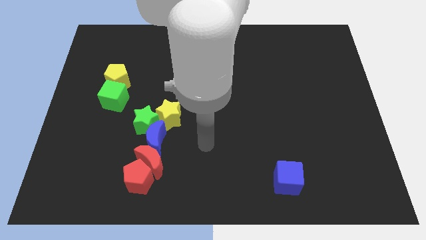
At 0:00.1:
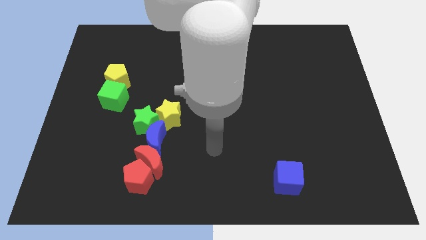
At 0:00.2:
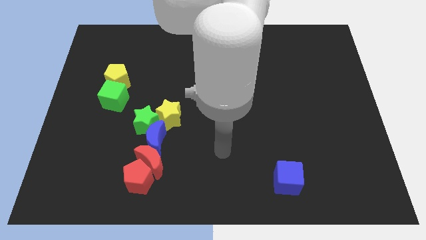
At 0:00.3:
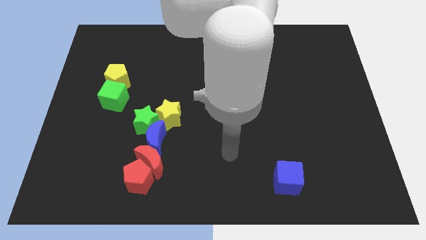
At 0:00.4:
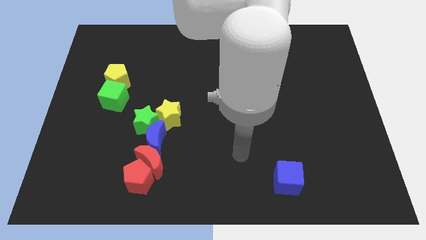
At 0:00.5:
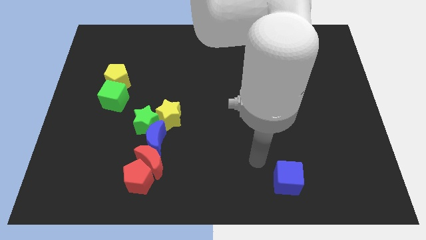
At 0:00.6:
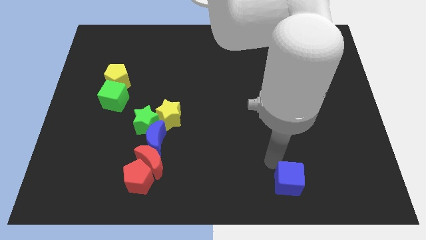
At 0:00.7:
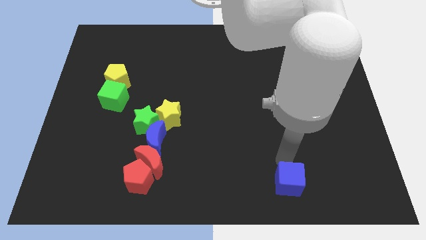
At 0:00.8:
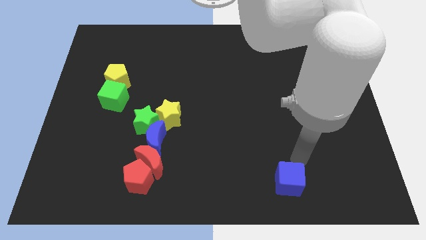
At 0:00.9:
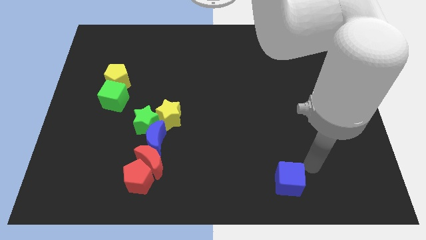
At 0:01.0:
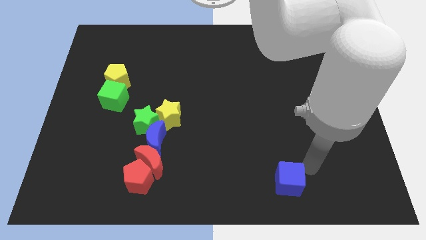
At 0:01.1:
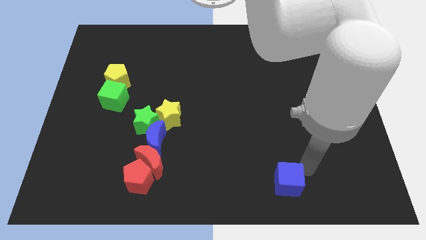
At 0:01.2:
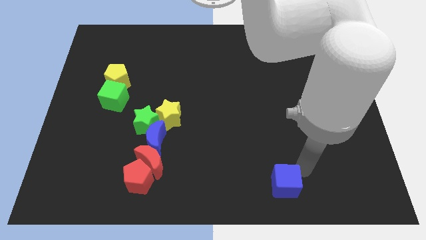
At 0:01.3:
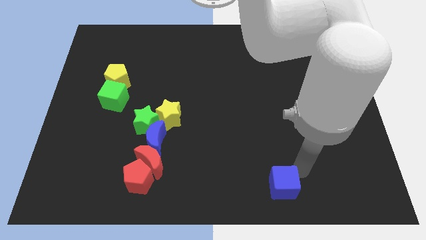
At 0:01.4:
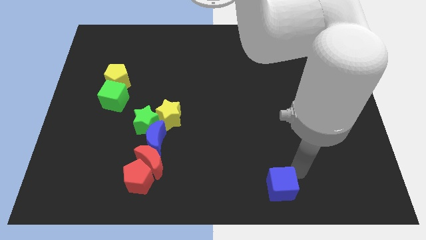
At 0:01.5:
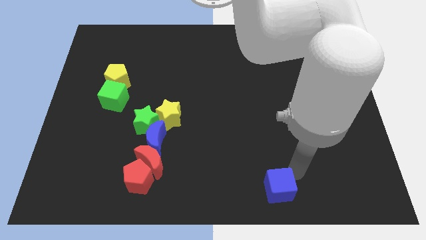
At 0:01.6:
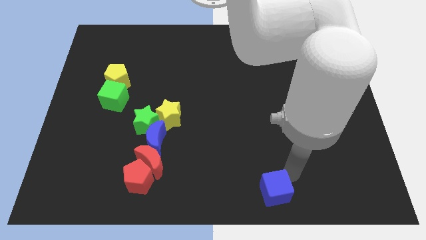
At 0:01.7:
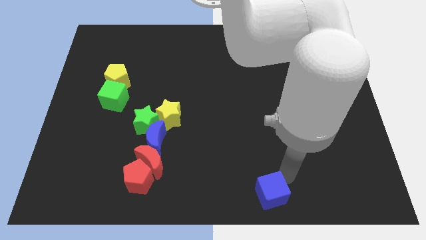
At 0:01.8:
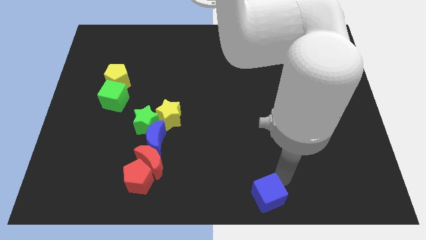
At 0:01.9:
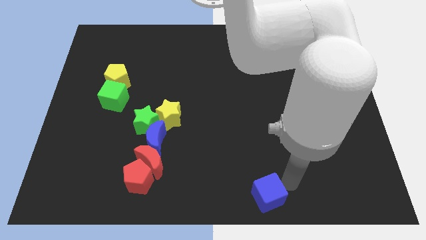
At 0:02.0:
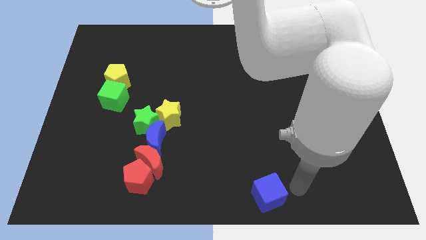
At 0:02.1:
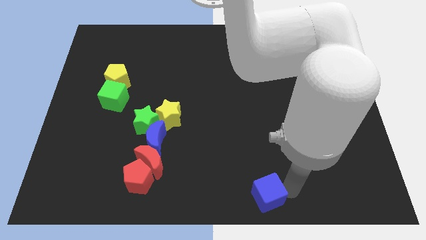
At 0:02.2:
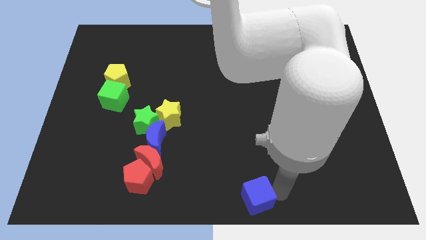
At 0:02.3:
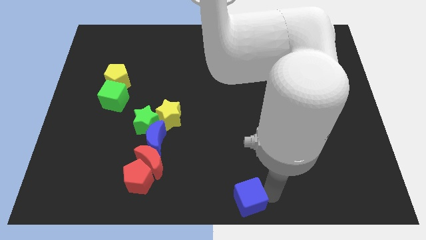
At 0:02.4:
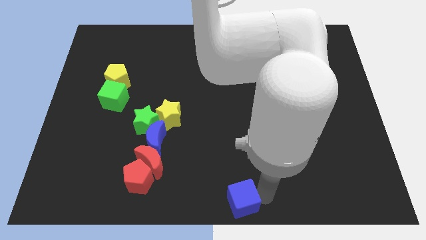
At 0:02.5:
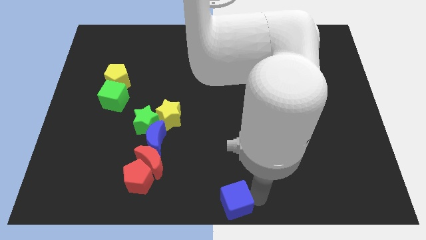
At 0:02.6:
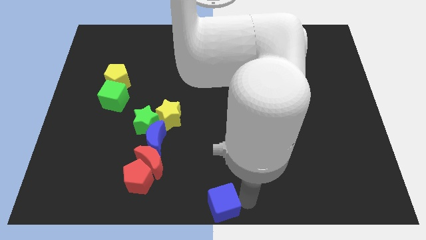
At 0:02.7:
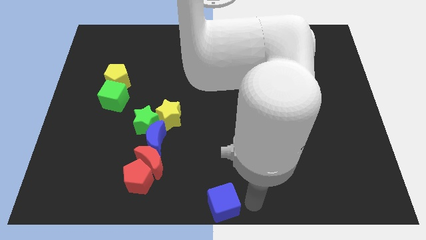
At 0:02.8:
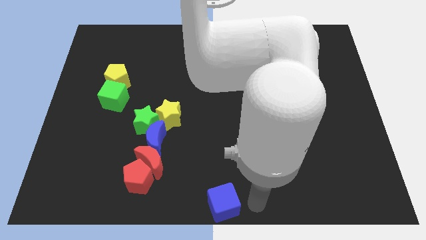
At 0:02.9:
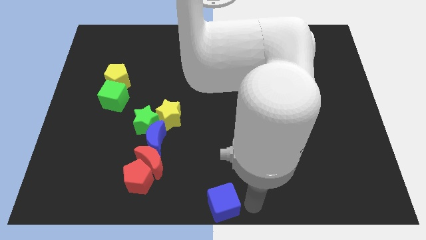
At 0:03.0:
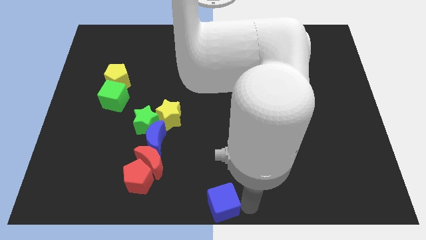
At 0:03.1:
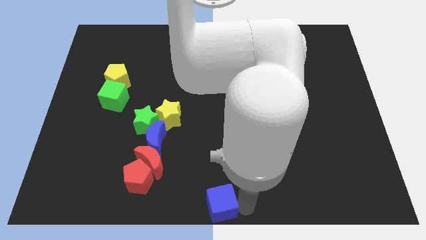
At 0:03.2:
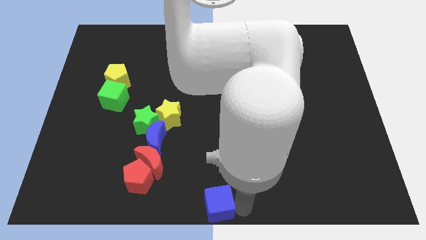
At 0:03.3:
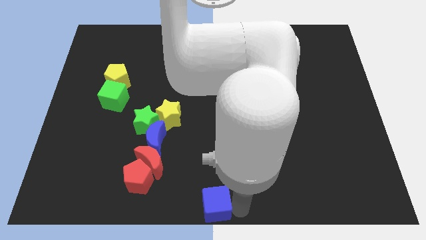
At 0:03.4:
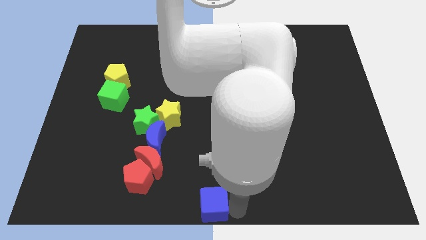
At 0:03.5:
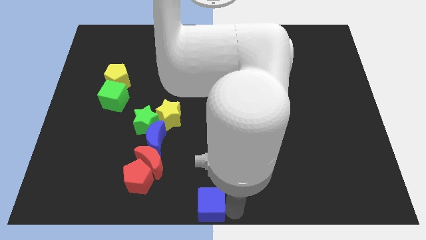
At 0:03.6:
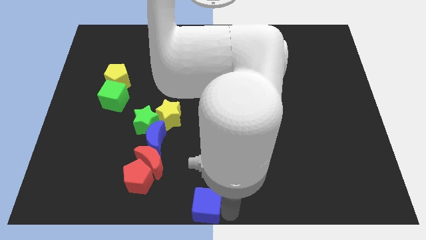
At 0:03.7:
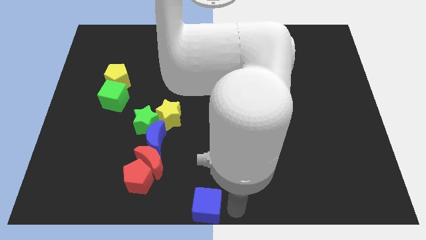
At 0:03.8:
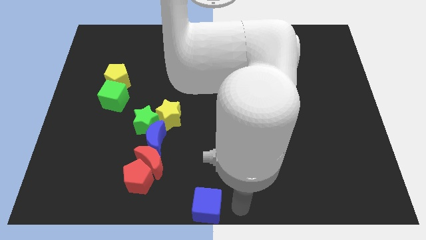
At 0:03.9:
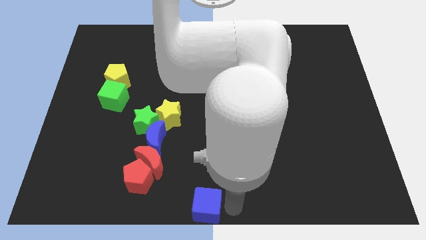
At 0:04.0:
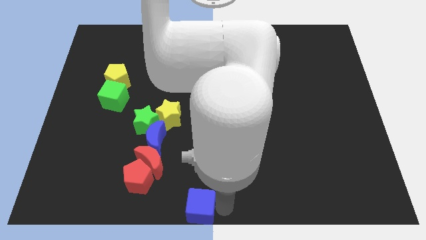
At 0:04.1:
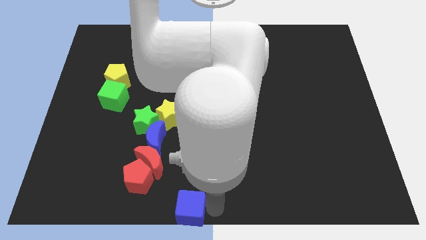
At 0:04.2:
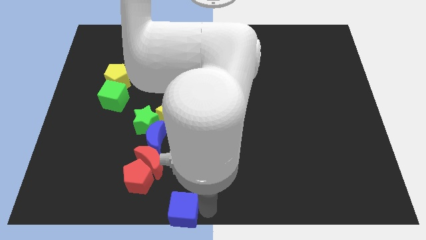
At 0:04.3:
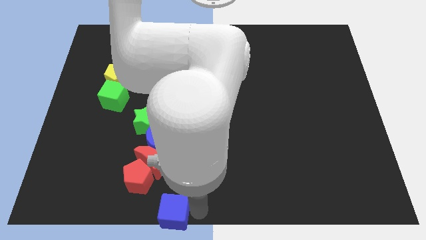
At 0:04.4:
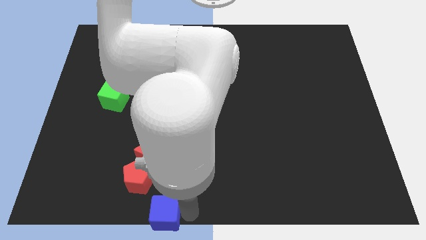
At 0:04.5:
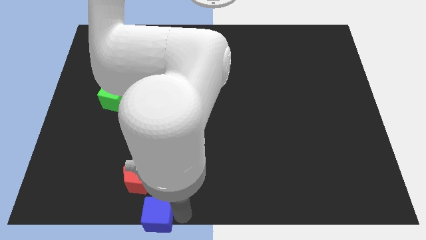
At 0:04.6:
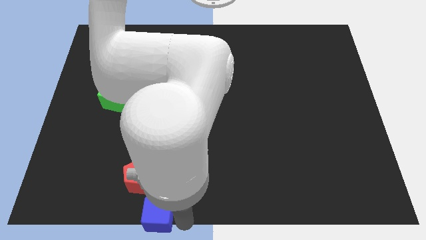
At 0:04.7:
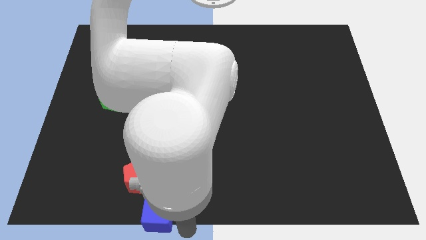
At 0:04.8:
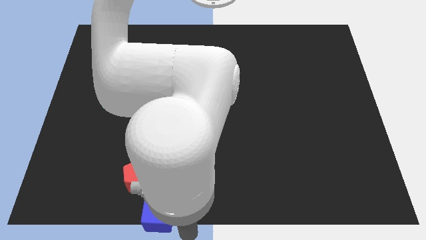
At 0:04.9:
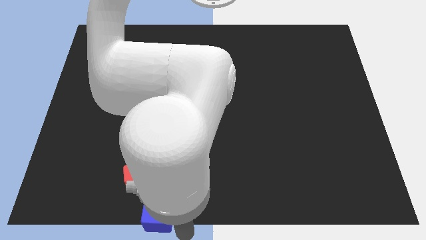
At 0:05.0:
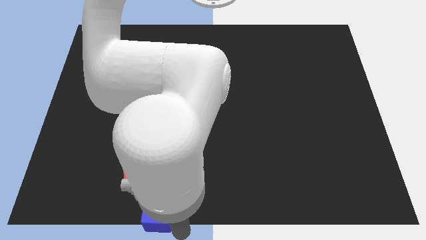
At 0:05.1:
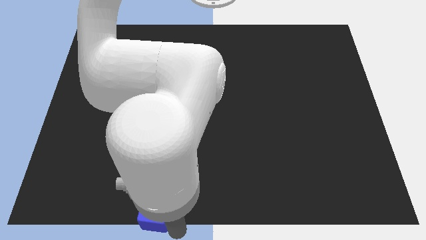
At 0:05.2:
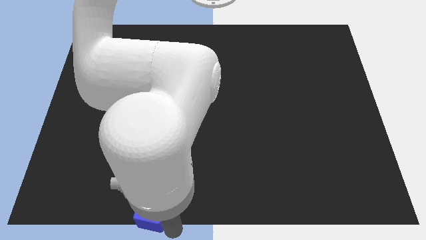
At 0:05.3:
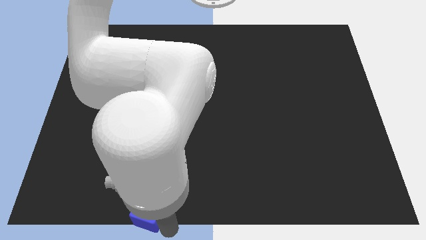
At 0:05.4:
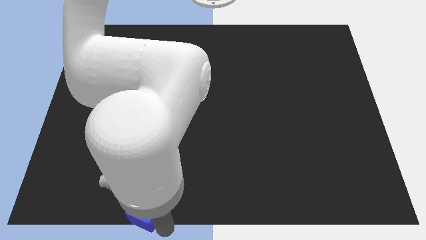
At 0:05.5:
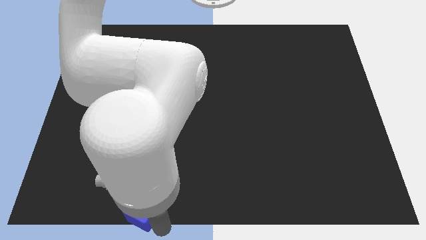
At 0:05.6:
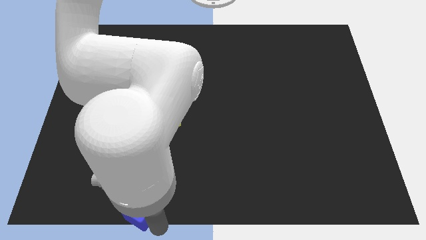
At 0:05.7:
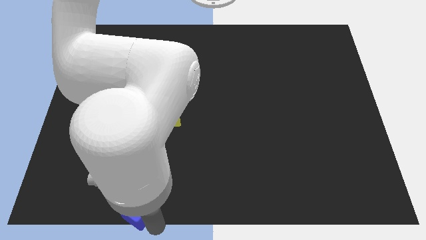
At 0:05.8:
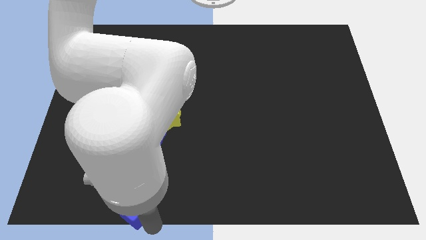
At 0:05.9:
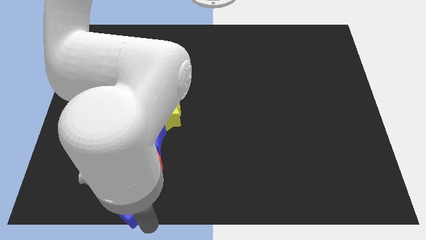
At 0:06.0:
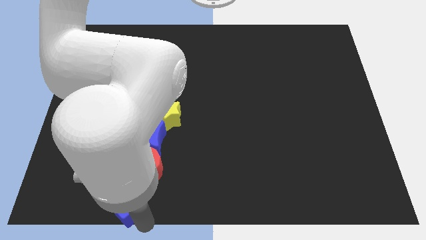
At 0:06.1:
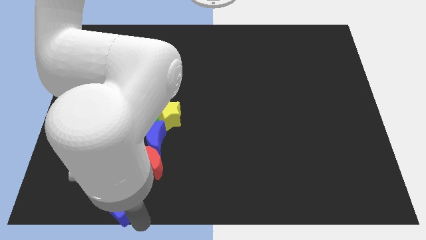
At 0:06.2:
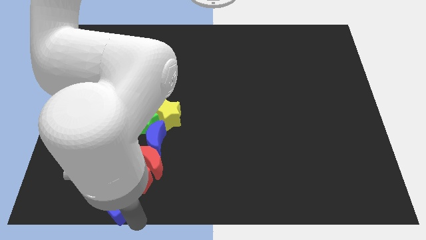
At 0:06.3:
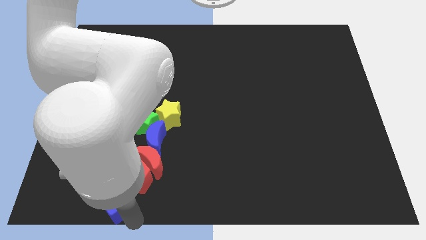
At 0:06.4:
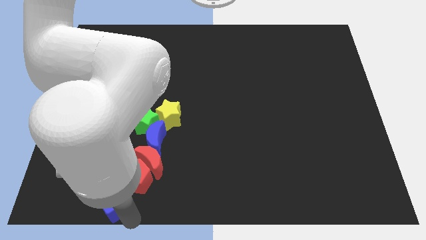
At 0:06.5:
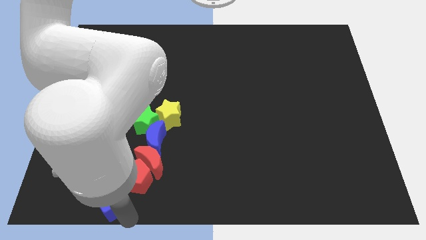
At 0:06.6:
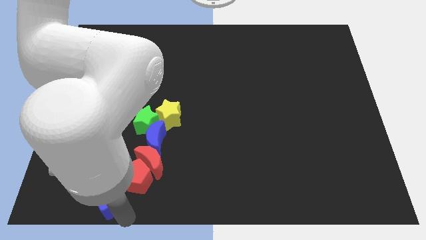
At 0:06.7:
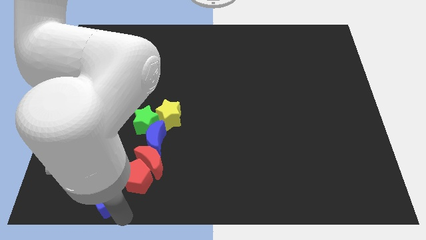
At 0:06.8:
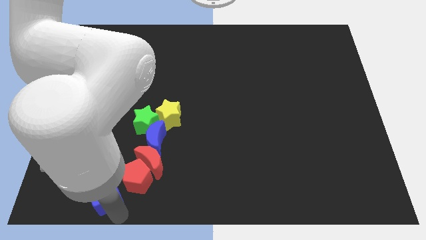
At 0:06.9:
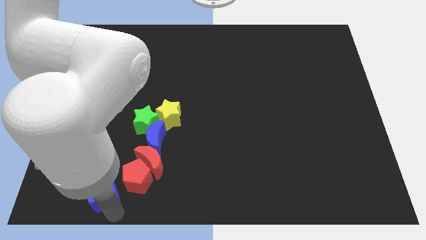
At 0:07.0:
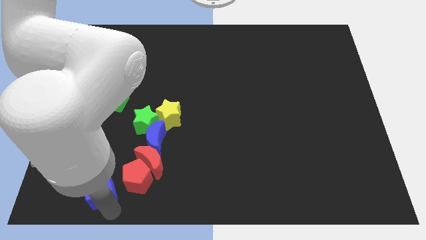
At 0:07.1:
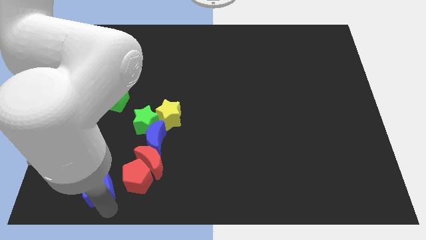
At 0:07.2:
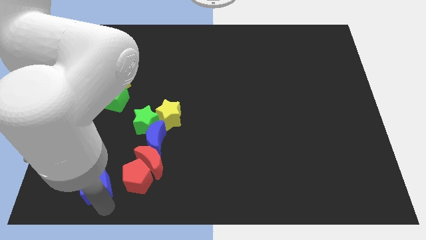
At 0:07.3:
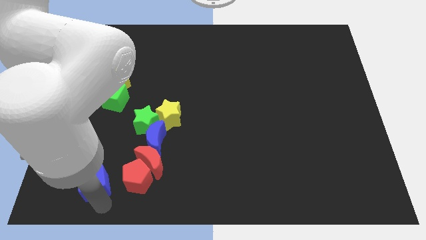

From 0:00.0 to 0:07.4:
slide the blue cube just left of the red moon
